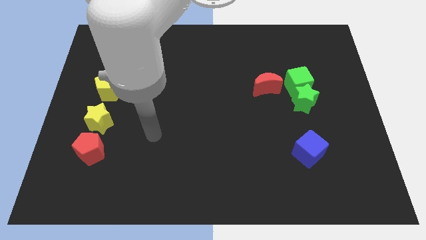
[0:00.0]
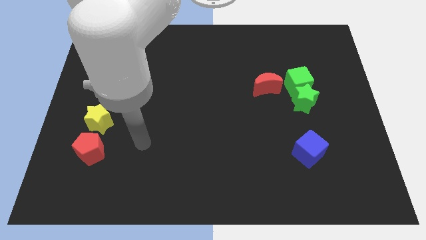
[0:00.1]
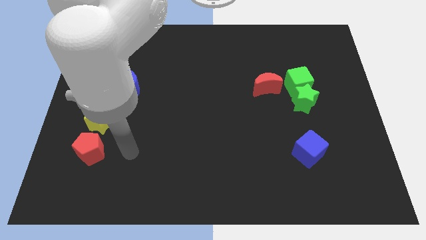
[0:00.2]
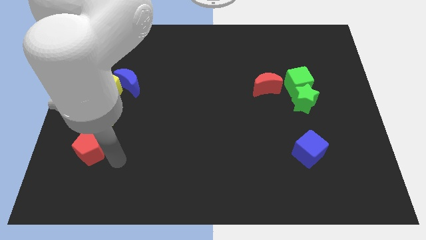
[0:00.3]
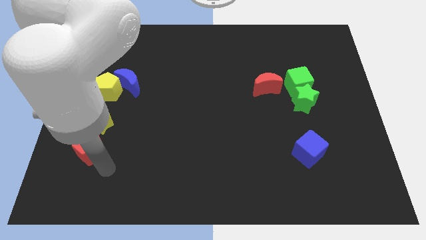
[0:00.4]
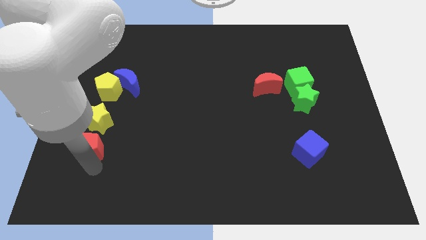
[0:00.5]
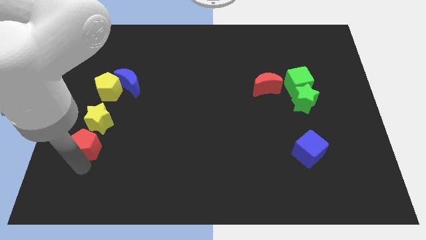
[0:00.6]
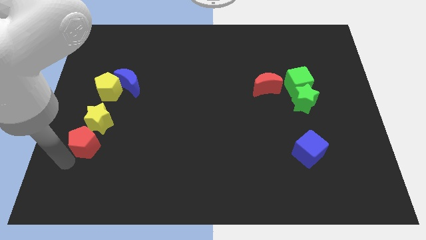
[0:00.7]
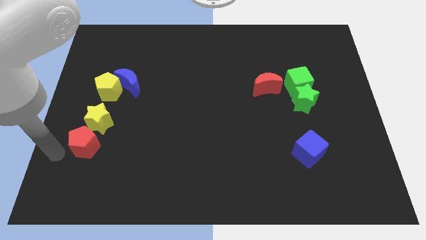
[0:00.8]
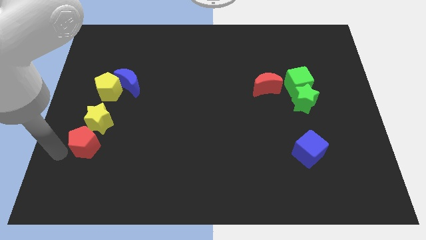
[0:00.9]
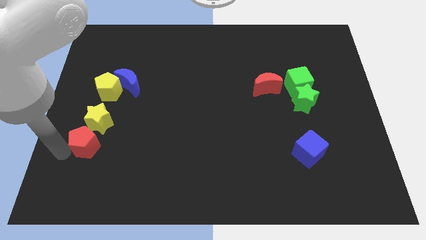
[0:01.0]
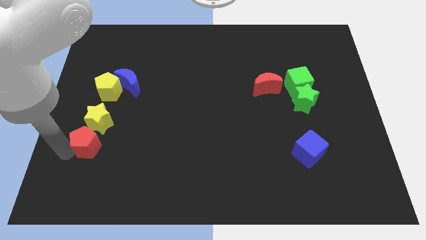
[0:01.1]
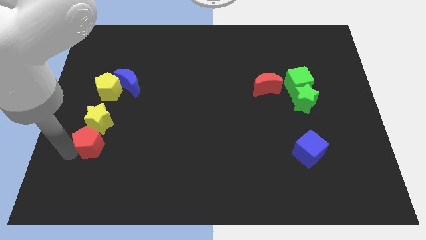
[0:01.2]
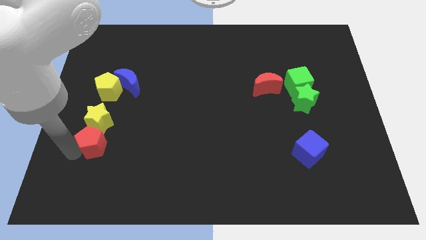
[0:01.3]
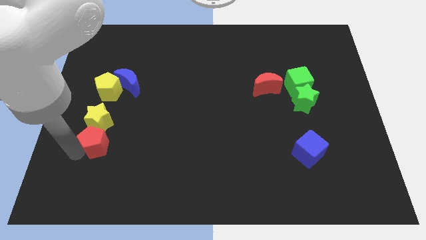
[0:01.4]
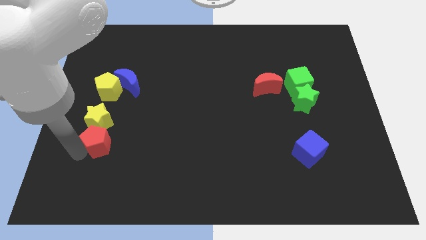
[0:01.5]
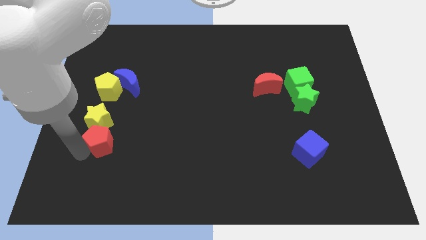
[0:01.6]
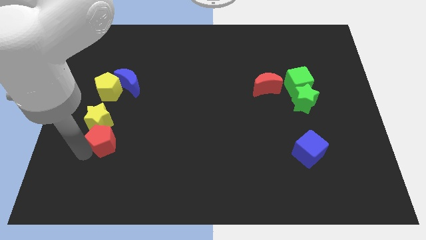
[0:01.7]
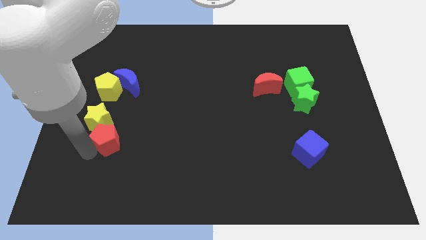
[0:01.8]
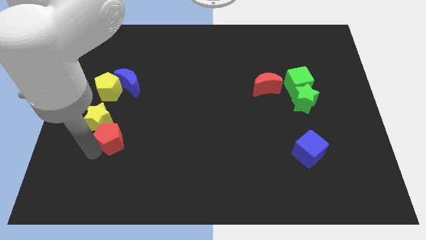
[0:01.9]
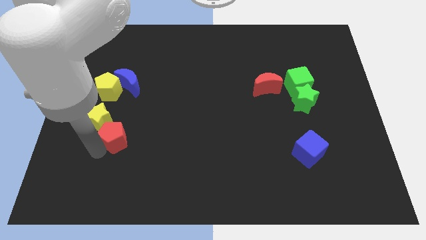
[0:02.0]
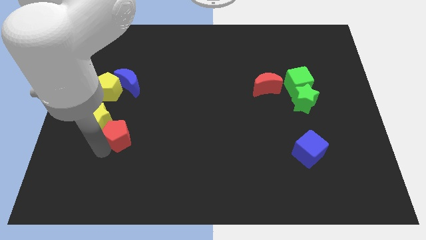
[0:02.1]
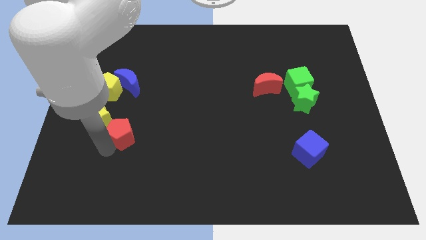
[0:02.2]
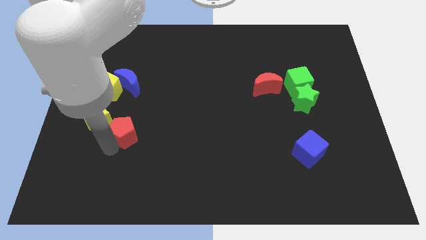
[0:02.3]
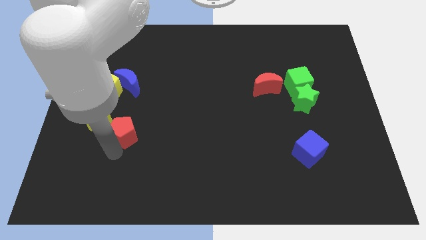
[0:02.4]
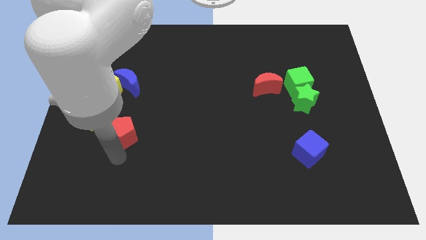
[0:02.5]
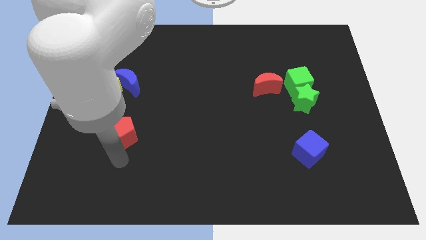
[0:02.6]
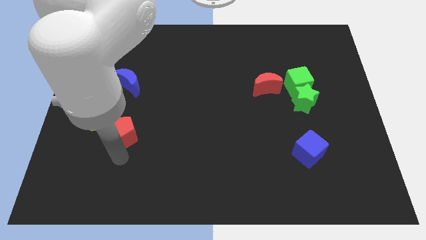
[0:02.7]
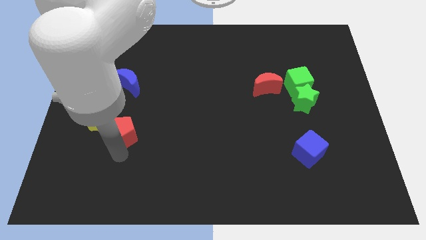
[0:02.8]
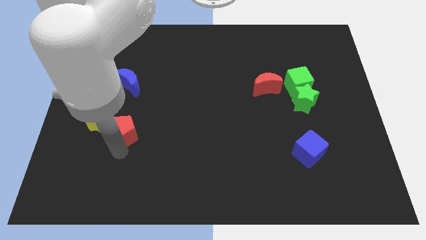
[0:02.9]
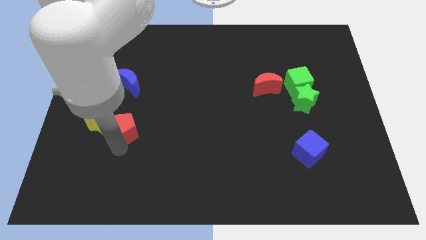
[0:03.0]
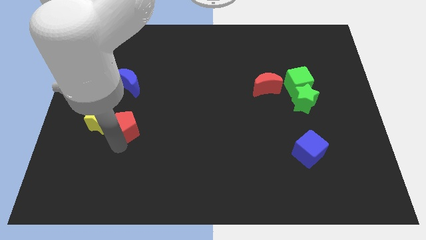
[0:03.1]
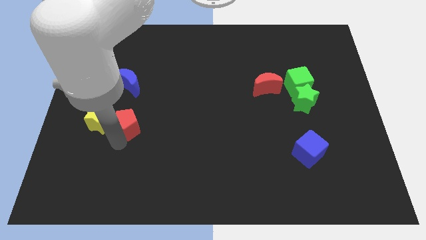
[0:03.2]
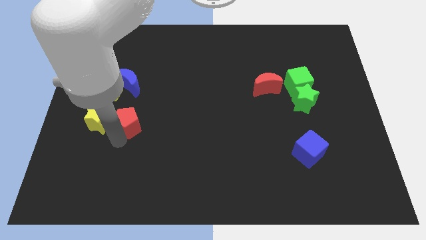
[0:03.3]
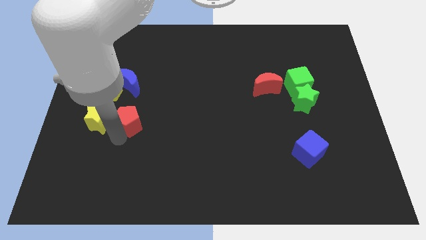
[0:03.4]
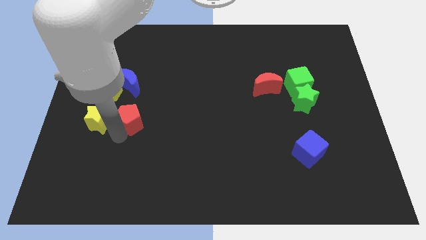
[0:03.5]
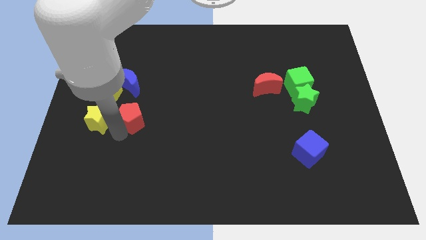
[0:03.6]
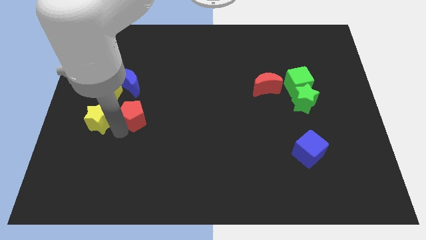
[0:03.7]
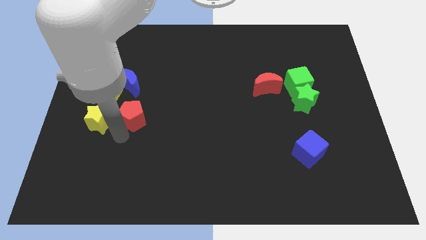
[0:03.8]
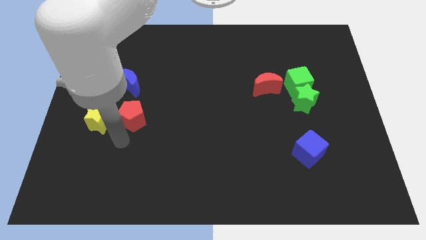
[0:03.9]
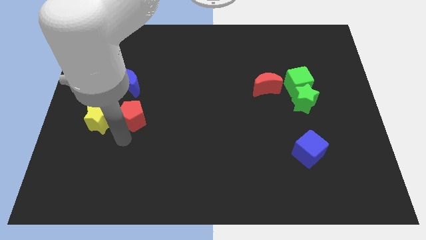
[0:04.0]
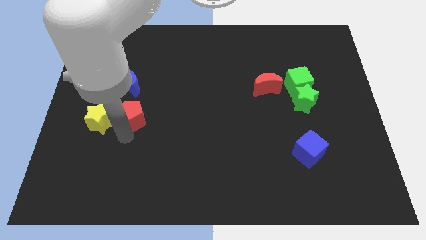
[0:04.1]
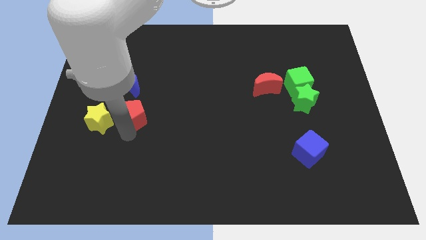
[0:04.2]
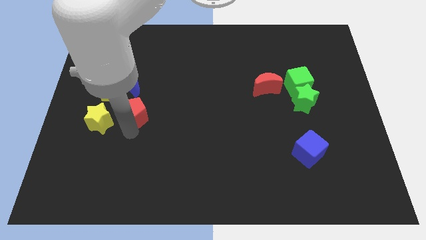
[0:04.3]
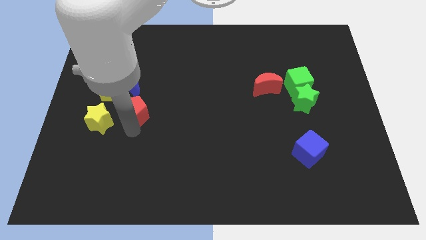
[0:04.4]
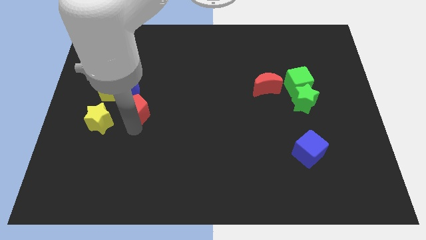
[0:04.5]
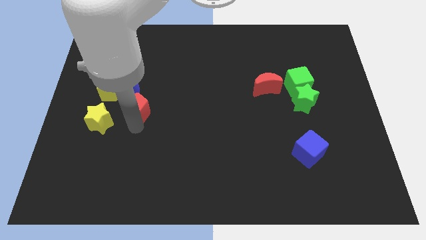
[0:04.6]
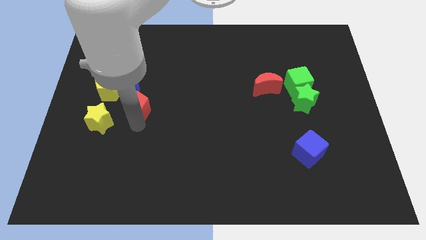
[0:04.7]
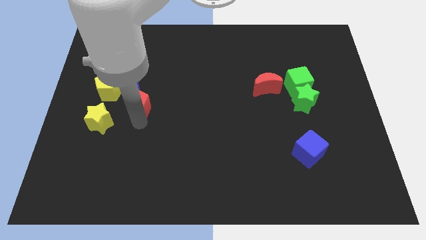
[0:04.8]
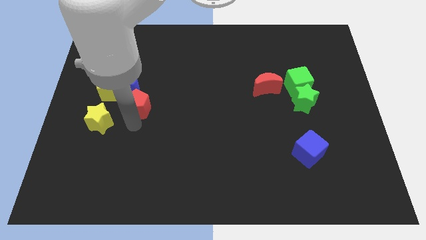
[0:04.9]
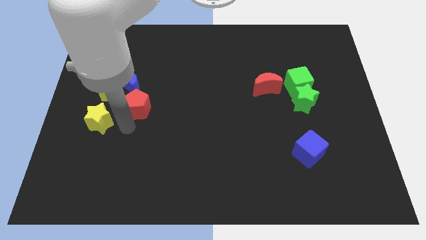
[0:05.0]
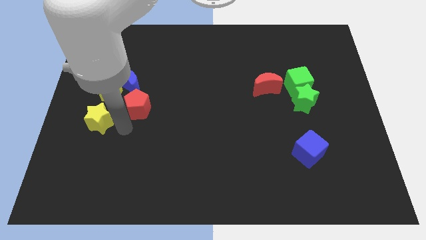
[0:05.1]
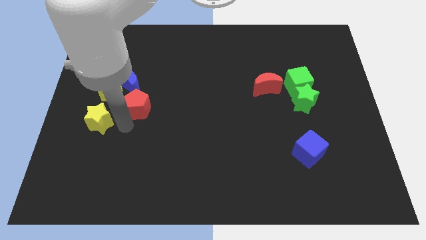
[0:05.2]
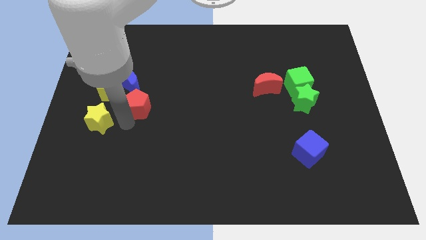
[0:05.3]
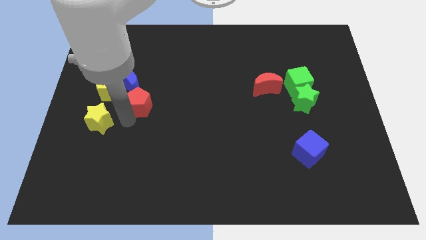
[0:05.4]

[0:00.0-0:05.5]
move the red pentagon to the right side of the yellow pentagon

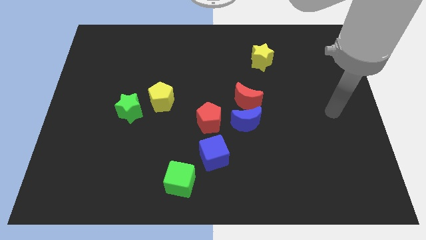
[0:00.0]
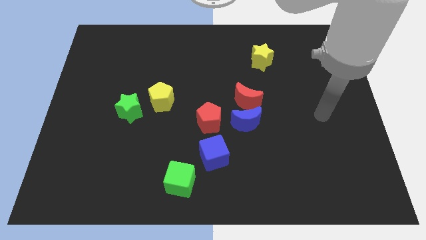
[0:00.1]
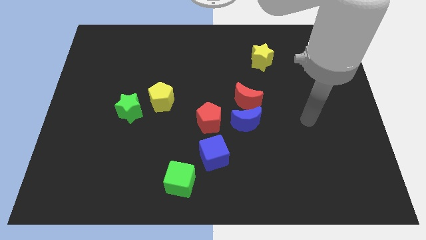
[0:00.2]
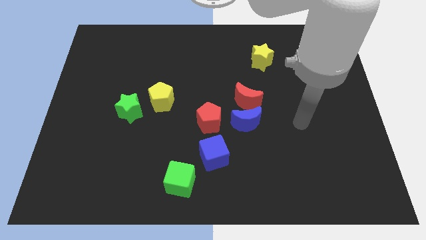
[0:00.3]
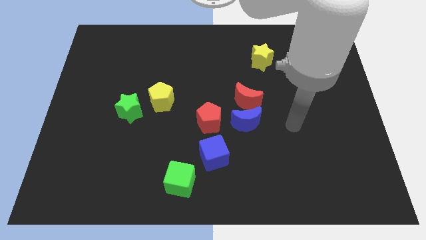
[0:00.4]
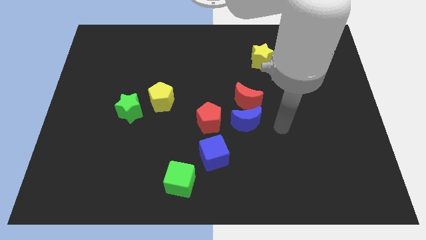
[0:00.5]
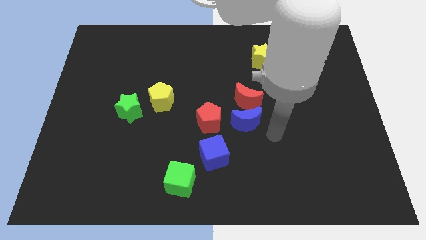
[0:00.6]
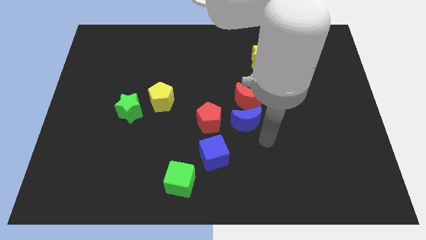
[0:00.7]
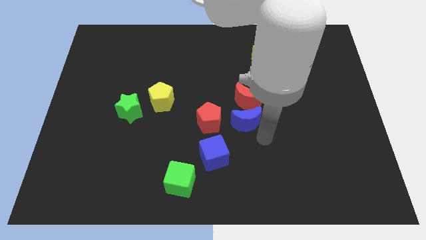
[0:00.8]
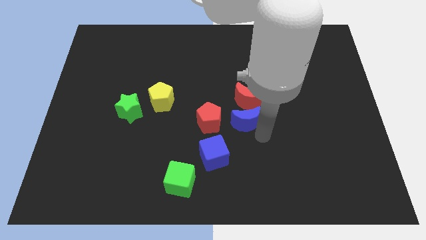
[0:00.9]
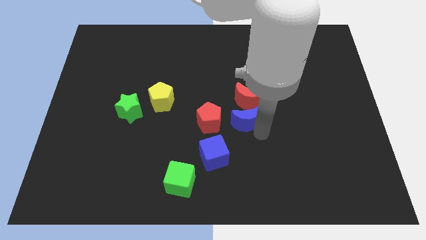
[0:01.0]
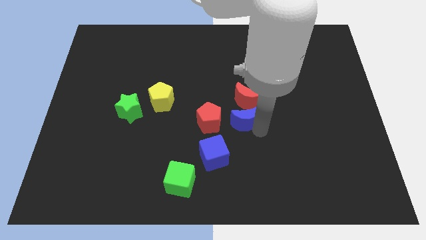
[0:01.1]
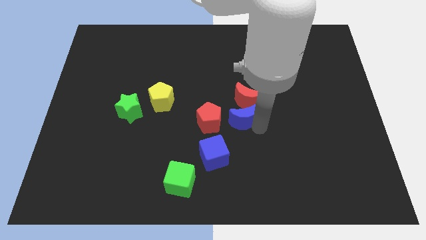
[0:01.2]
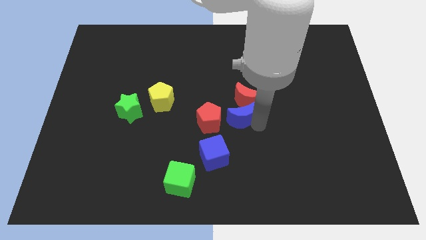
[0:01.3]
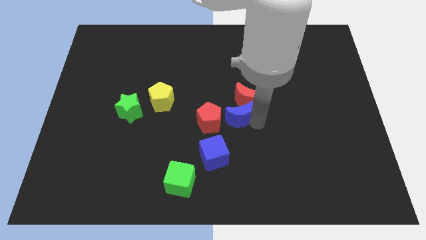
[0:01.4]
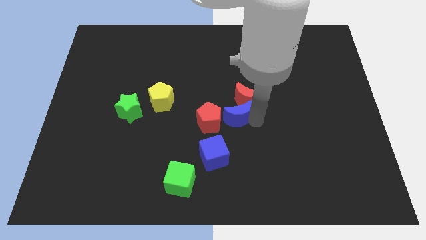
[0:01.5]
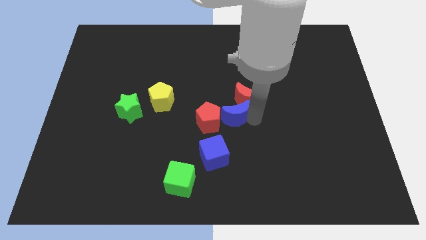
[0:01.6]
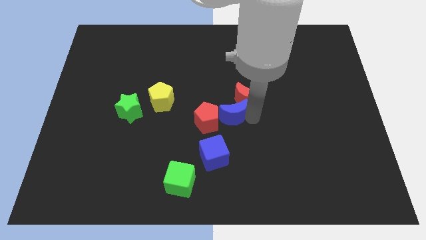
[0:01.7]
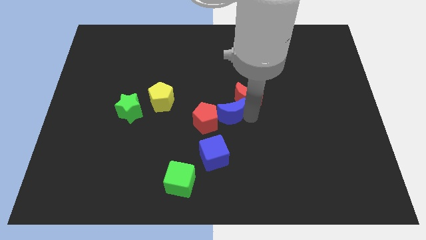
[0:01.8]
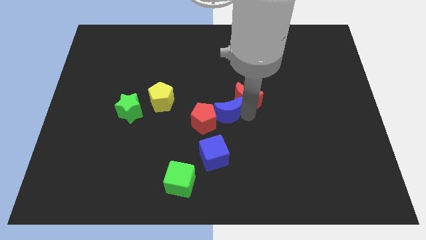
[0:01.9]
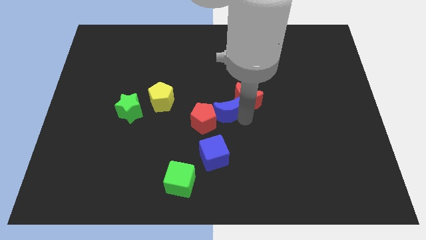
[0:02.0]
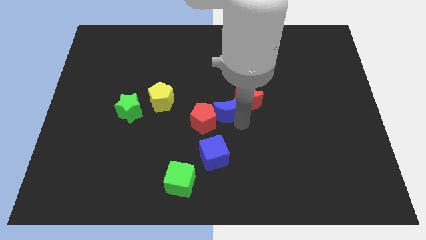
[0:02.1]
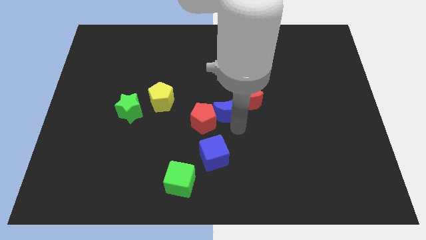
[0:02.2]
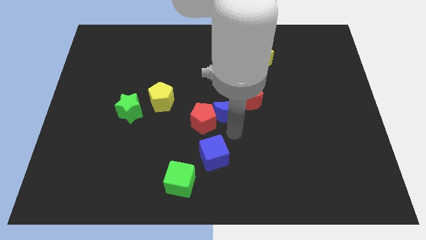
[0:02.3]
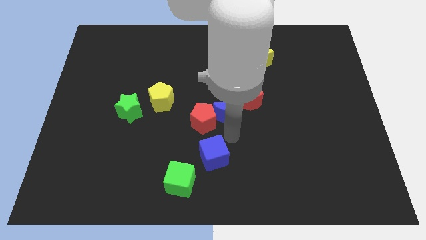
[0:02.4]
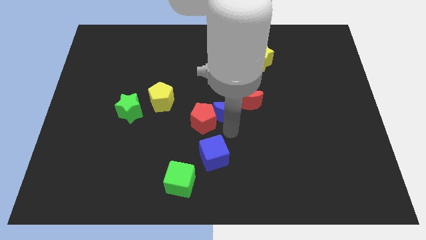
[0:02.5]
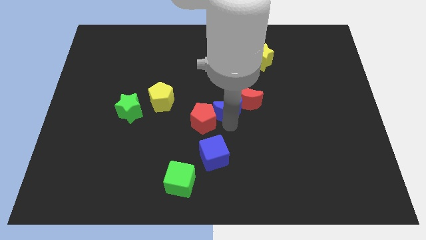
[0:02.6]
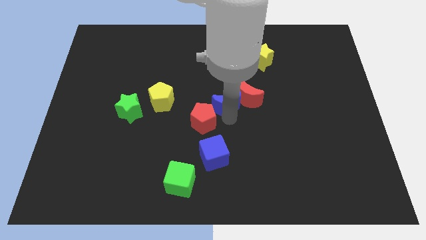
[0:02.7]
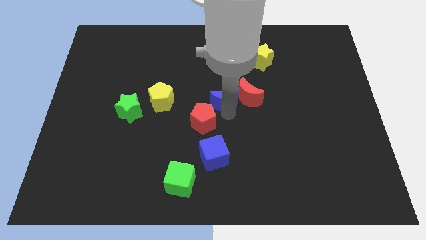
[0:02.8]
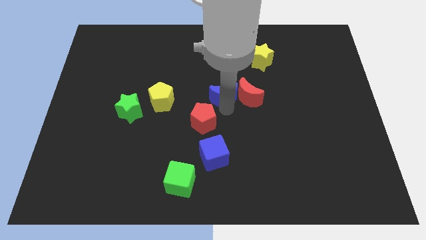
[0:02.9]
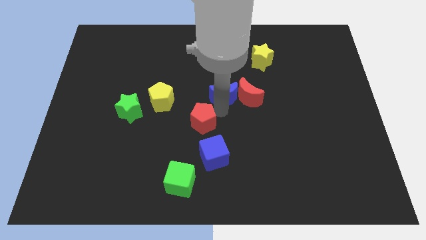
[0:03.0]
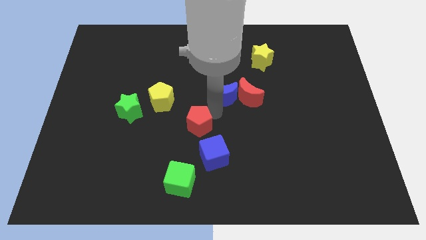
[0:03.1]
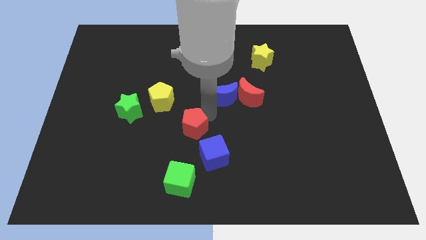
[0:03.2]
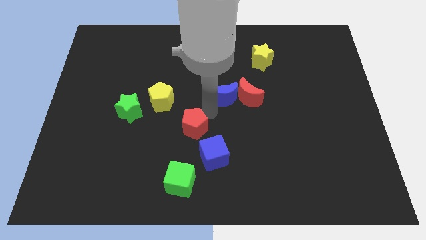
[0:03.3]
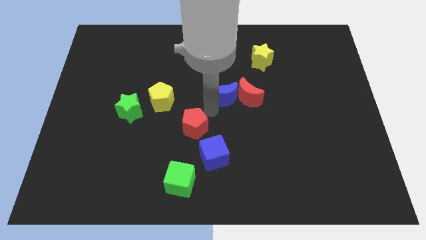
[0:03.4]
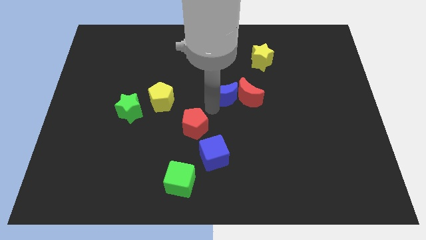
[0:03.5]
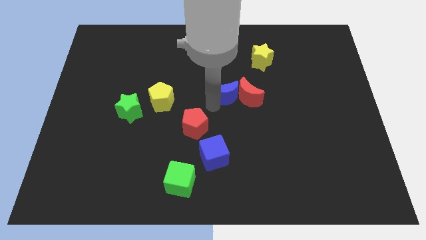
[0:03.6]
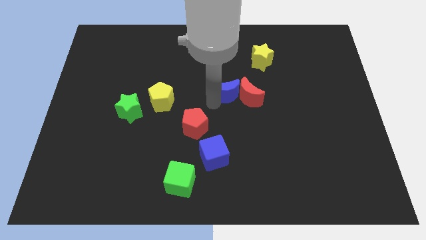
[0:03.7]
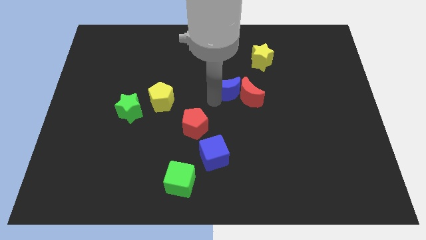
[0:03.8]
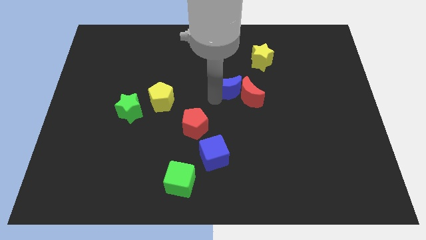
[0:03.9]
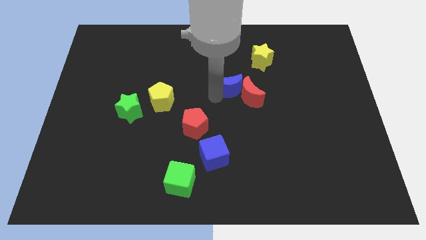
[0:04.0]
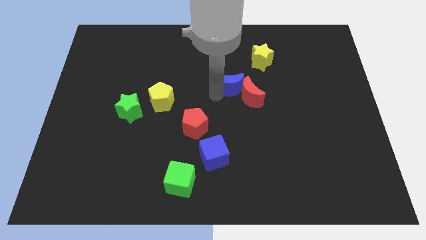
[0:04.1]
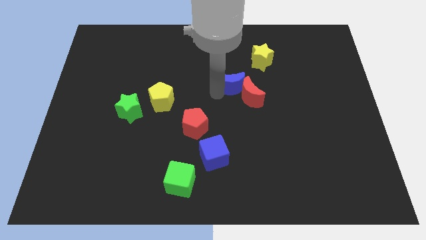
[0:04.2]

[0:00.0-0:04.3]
put the blue moon to the top side of the red moon
